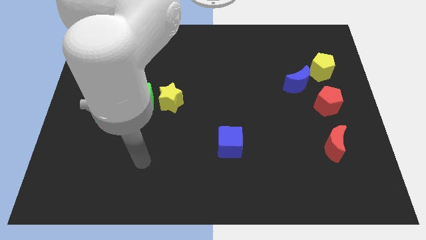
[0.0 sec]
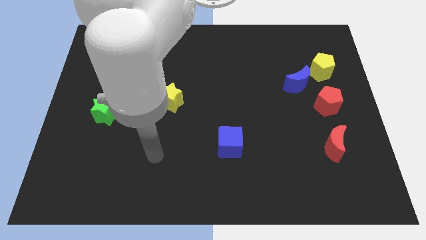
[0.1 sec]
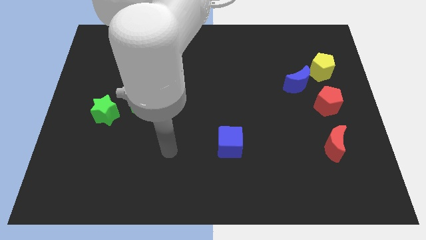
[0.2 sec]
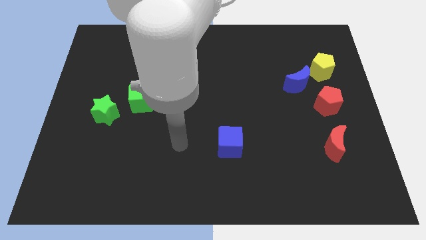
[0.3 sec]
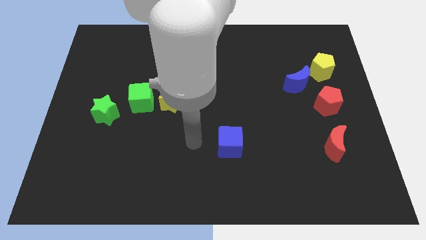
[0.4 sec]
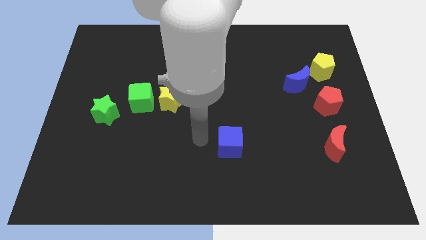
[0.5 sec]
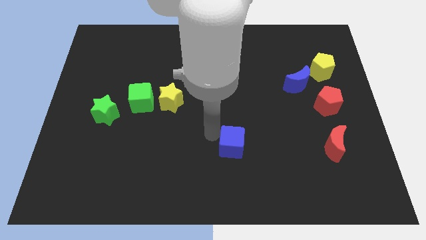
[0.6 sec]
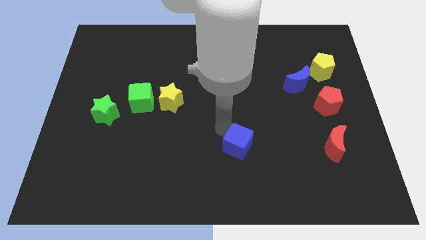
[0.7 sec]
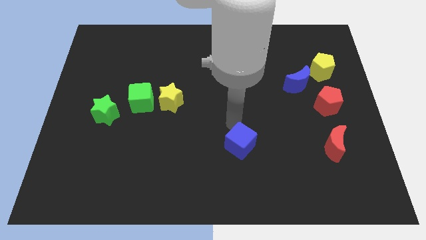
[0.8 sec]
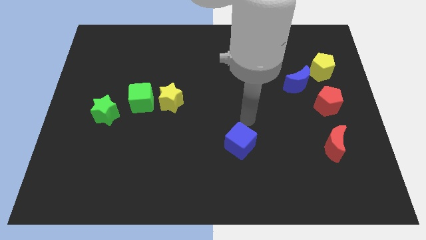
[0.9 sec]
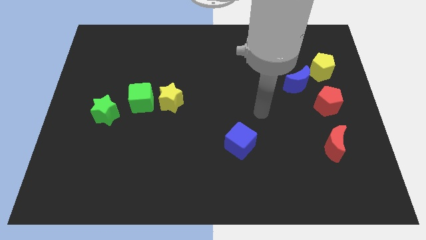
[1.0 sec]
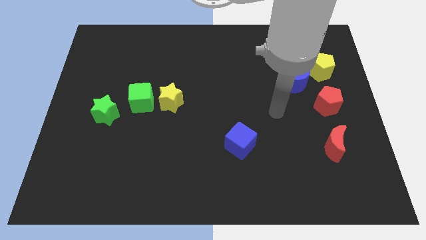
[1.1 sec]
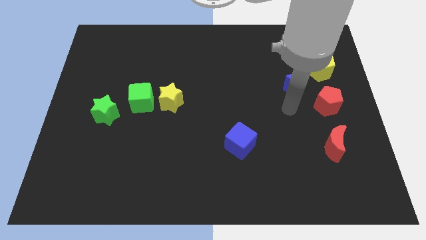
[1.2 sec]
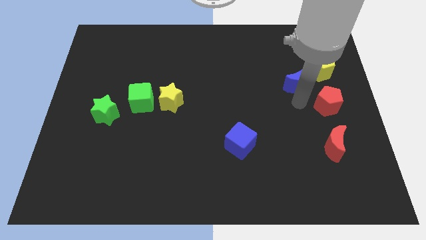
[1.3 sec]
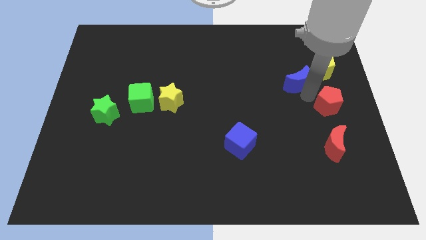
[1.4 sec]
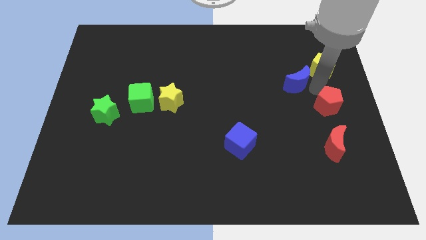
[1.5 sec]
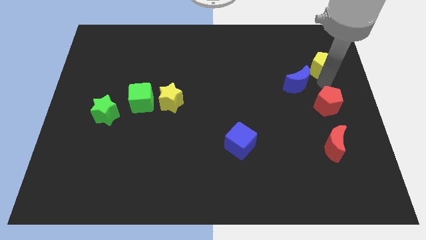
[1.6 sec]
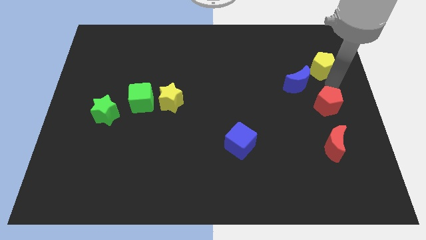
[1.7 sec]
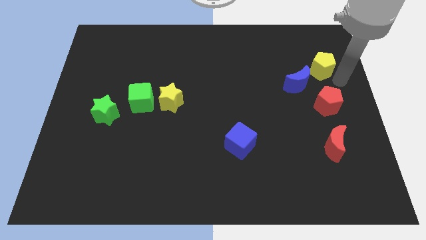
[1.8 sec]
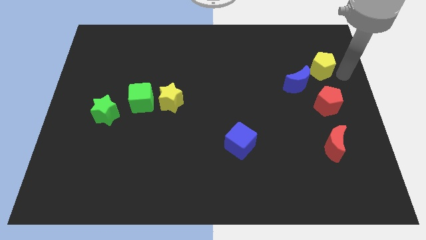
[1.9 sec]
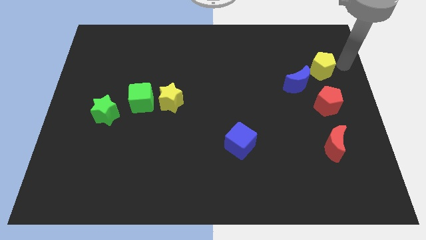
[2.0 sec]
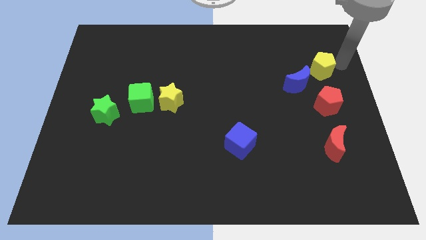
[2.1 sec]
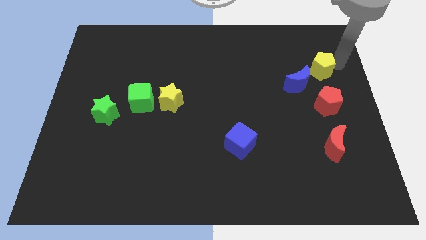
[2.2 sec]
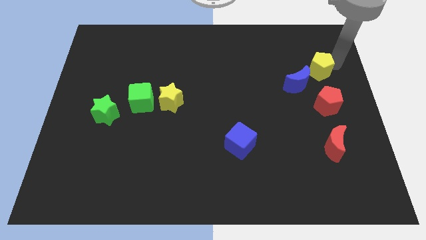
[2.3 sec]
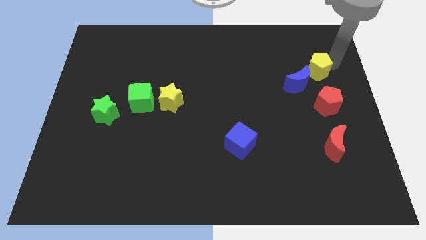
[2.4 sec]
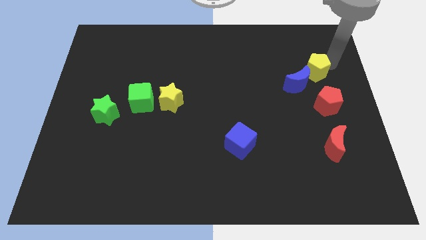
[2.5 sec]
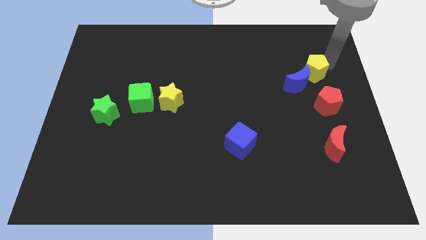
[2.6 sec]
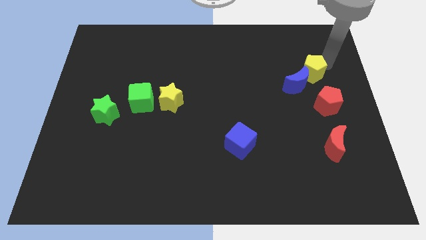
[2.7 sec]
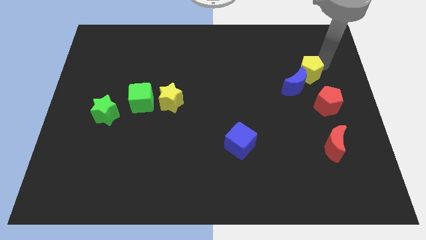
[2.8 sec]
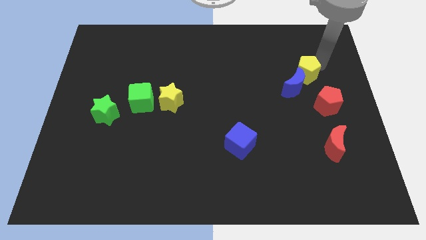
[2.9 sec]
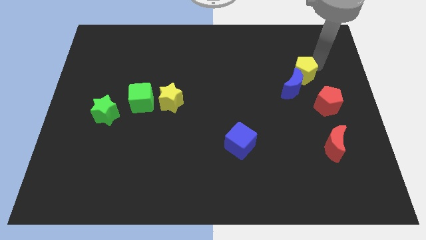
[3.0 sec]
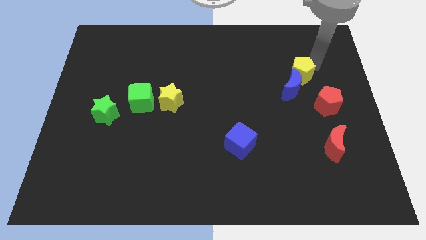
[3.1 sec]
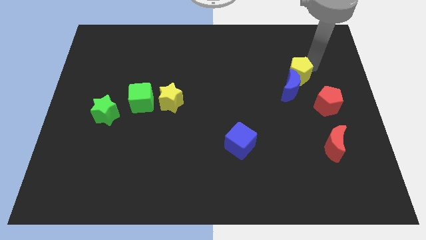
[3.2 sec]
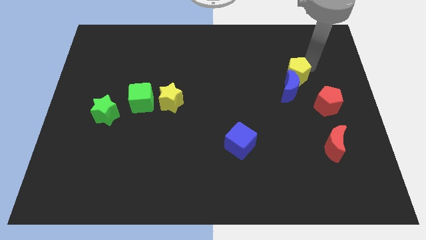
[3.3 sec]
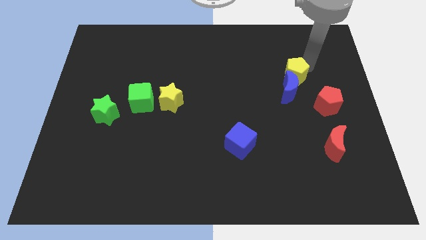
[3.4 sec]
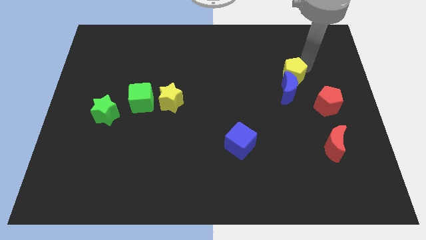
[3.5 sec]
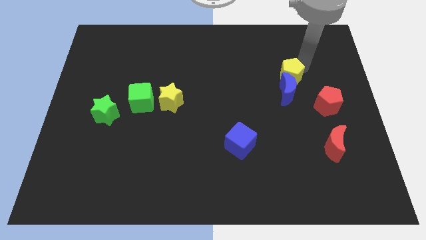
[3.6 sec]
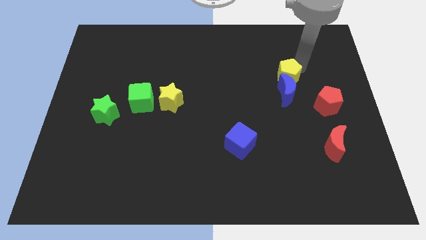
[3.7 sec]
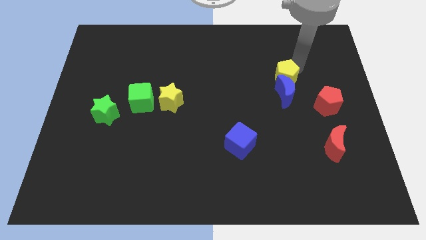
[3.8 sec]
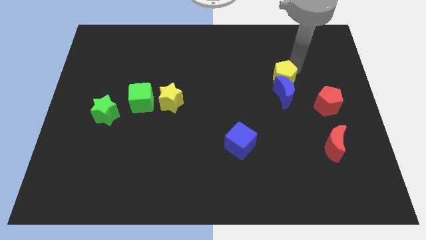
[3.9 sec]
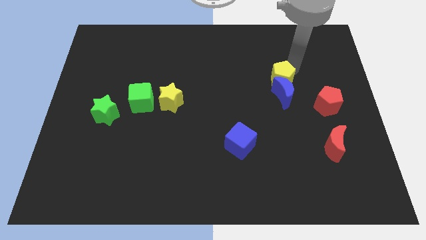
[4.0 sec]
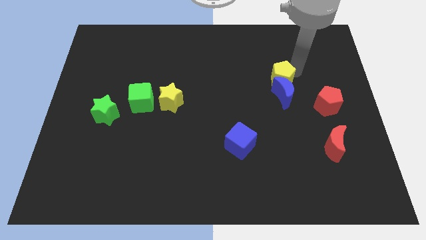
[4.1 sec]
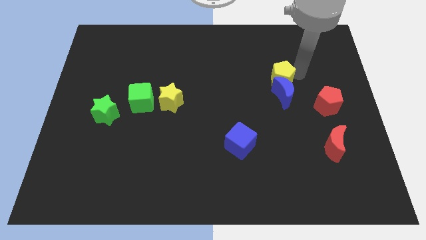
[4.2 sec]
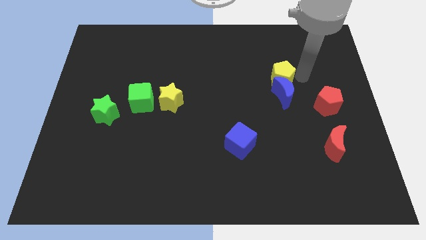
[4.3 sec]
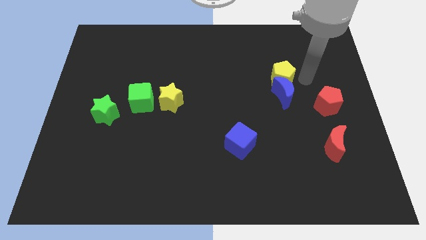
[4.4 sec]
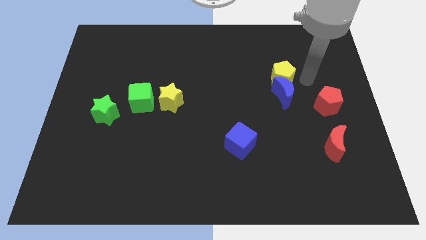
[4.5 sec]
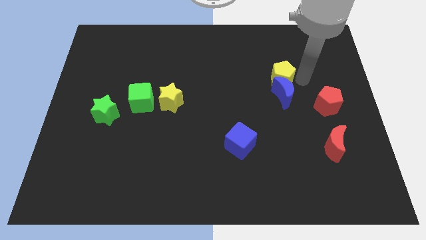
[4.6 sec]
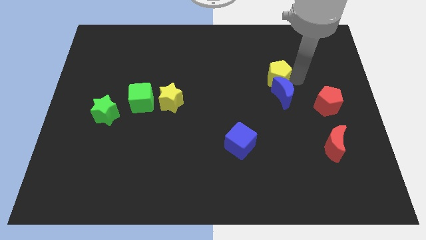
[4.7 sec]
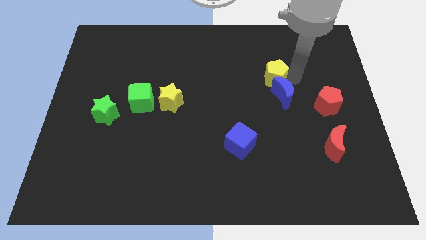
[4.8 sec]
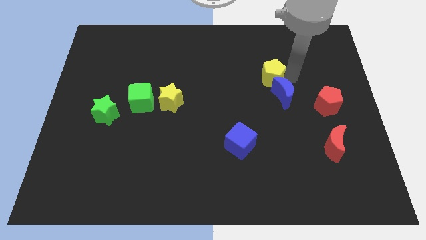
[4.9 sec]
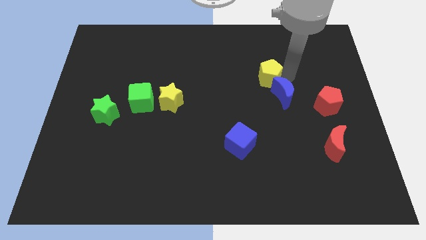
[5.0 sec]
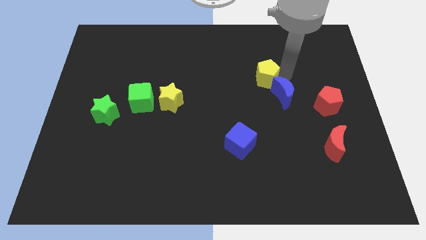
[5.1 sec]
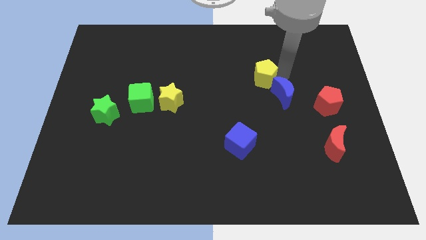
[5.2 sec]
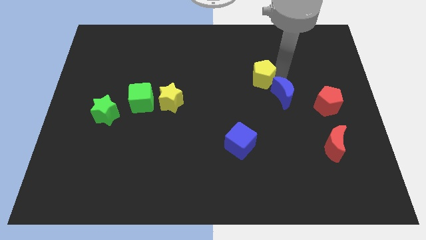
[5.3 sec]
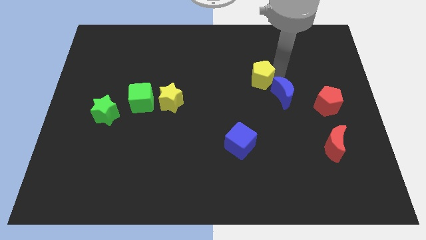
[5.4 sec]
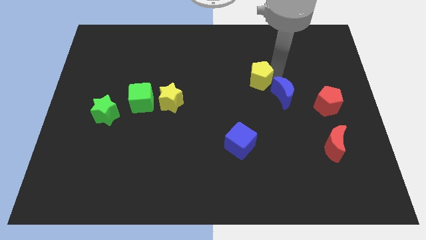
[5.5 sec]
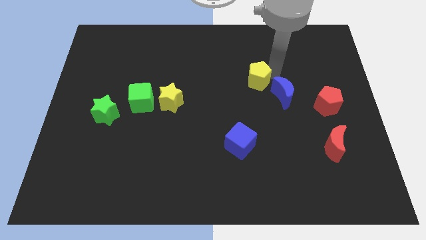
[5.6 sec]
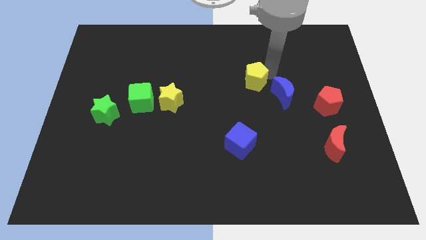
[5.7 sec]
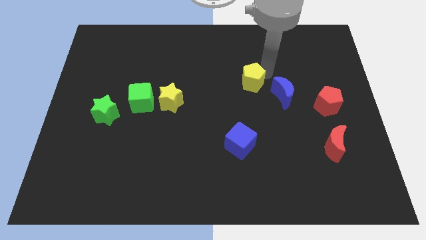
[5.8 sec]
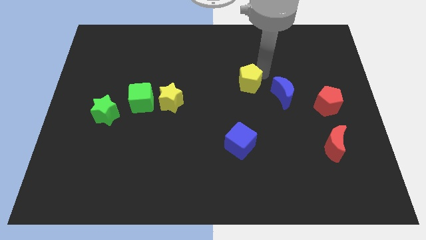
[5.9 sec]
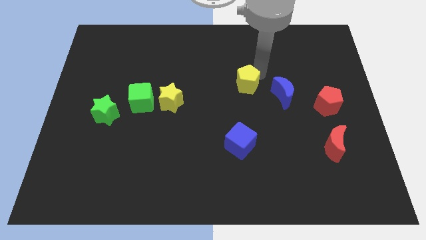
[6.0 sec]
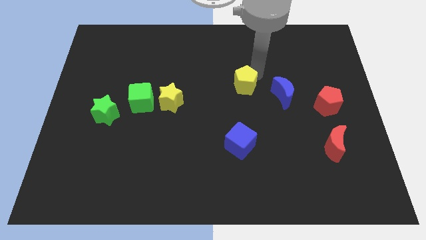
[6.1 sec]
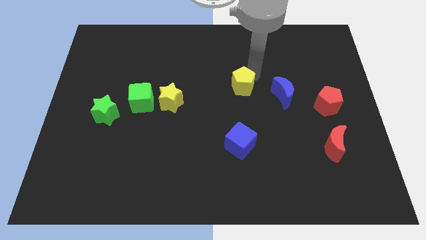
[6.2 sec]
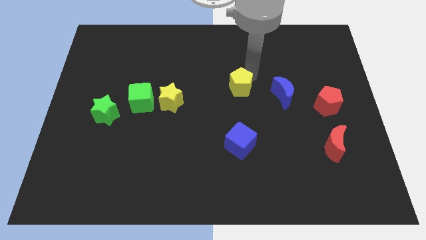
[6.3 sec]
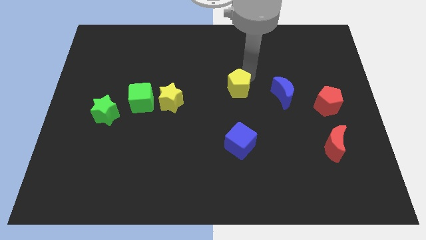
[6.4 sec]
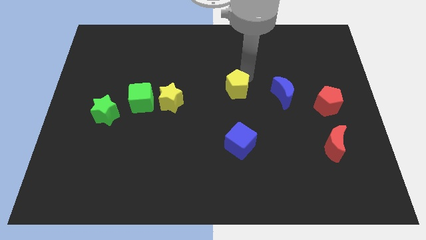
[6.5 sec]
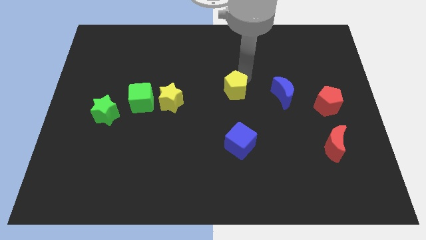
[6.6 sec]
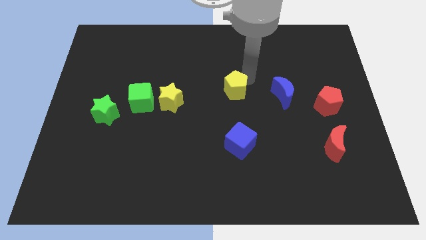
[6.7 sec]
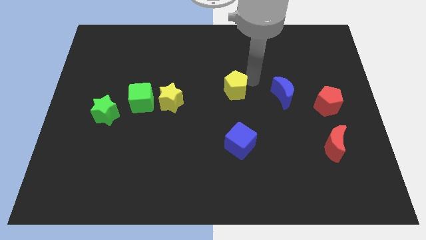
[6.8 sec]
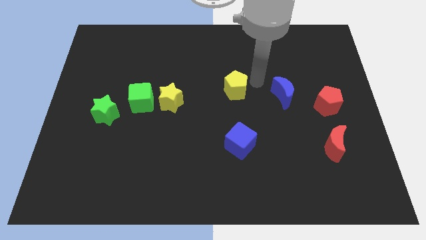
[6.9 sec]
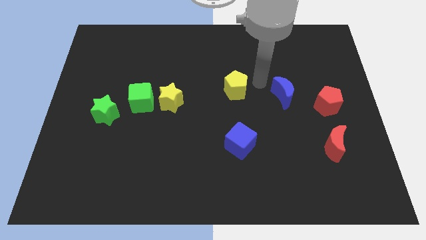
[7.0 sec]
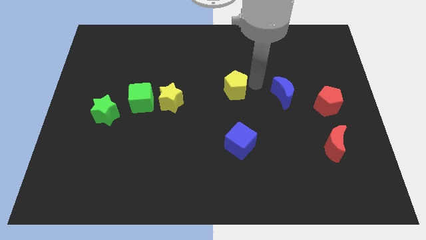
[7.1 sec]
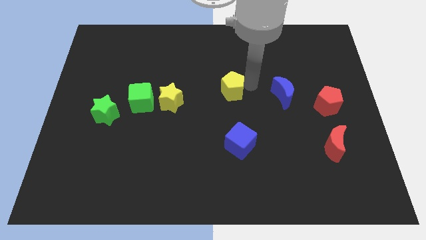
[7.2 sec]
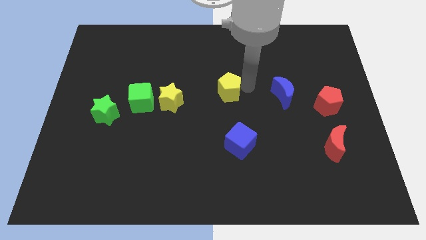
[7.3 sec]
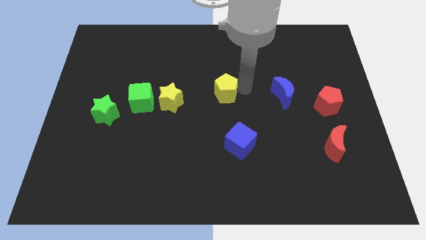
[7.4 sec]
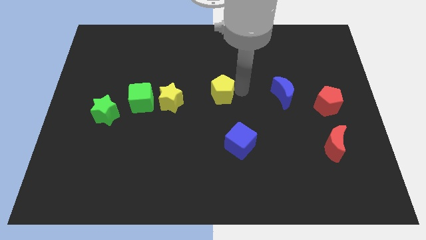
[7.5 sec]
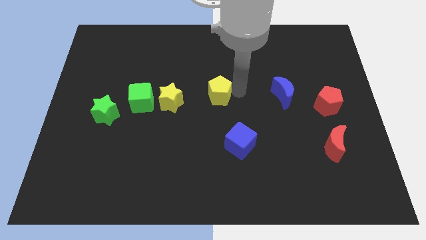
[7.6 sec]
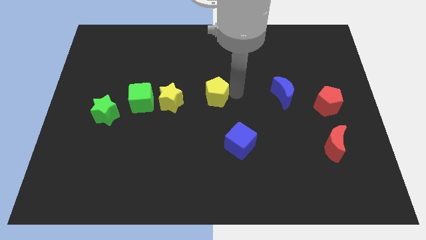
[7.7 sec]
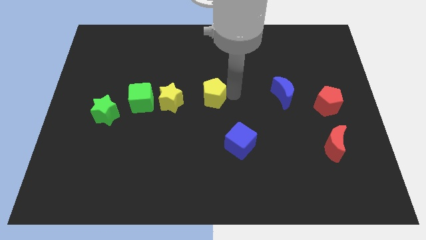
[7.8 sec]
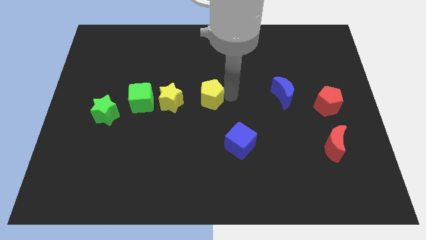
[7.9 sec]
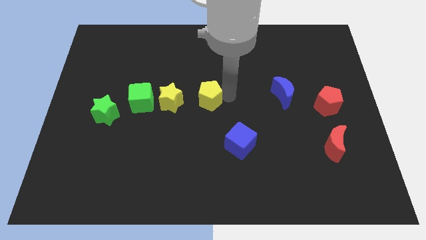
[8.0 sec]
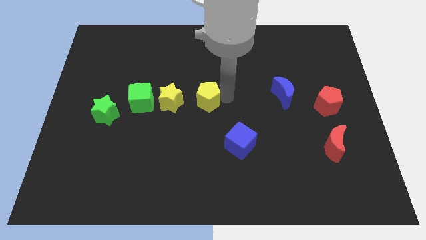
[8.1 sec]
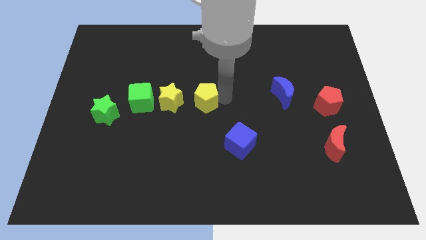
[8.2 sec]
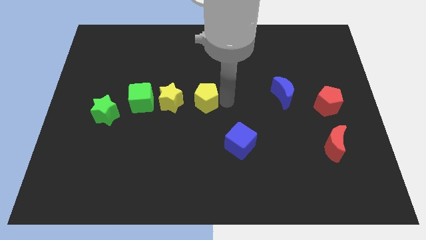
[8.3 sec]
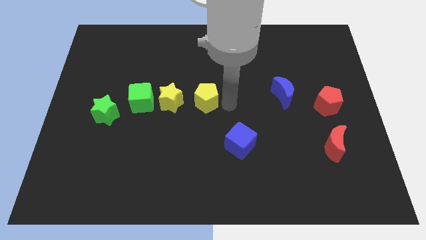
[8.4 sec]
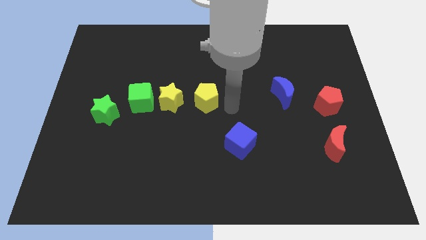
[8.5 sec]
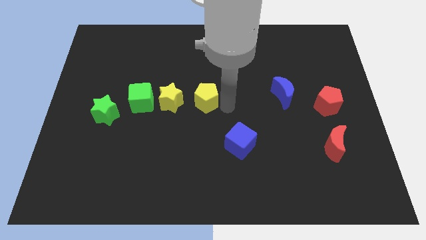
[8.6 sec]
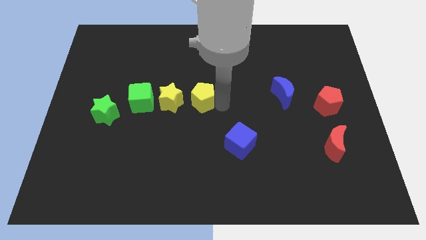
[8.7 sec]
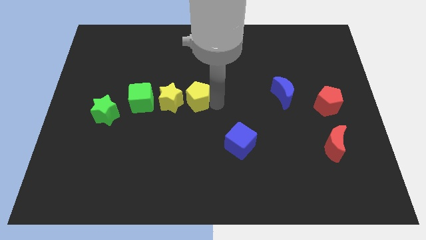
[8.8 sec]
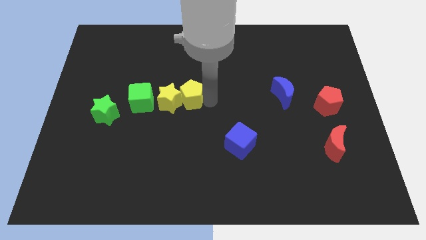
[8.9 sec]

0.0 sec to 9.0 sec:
move the yellow pentagon to the yellow star
